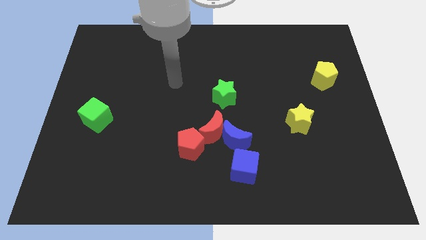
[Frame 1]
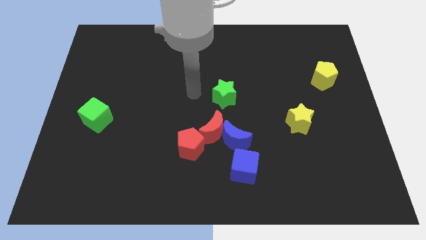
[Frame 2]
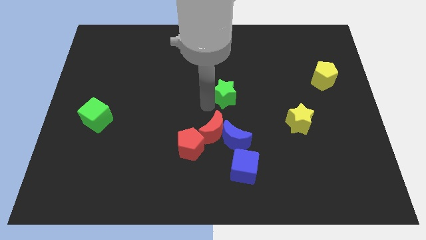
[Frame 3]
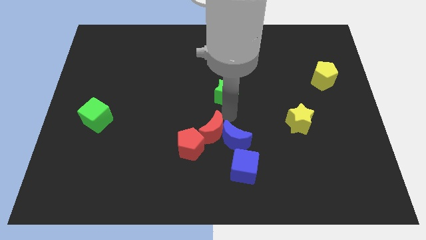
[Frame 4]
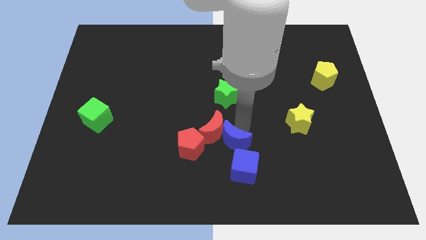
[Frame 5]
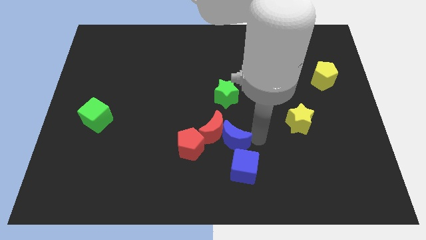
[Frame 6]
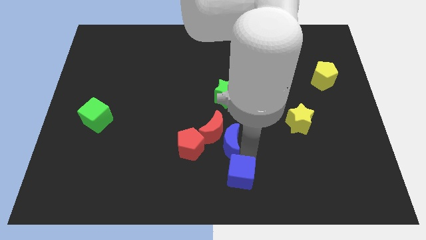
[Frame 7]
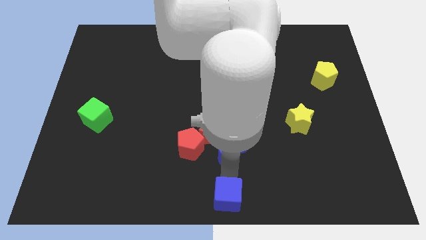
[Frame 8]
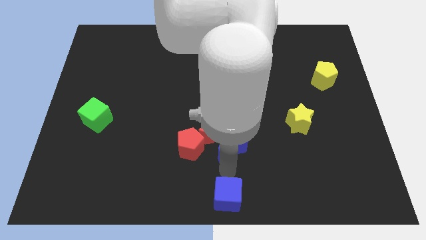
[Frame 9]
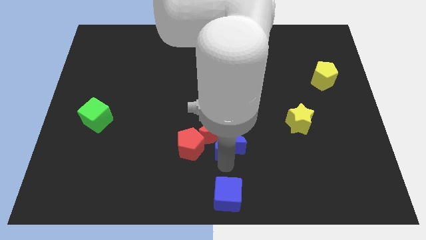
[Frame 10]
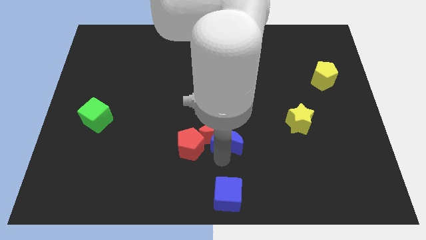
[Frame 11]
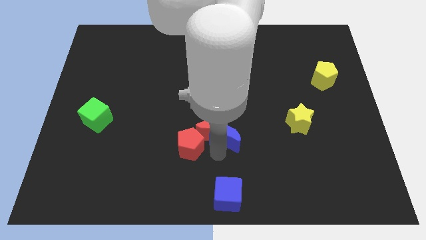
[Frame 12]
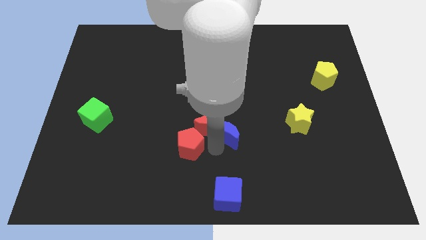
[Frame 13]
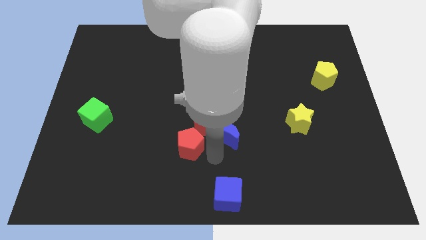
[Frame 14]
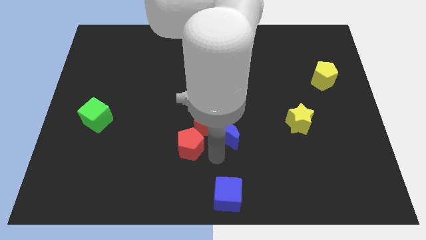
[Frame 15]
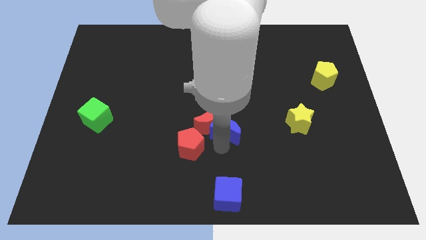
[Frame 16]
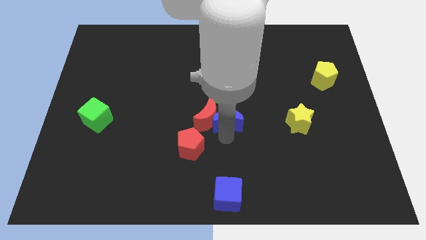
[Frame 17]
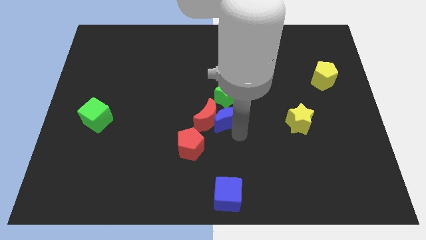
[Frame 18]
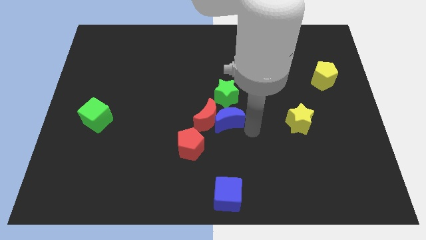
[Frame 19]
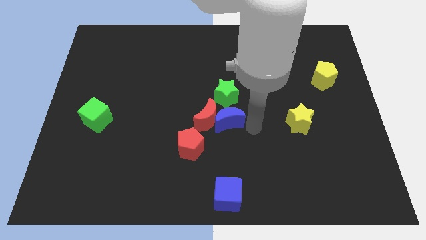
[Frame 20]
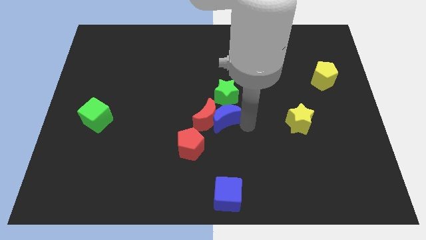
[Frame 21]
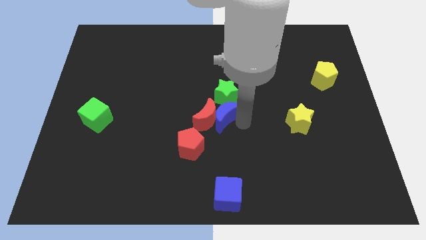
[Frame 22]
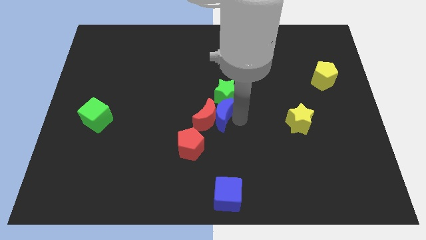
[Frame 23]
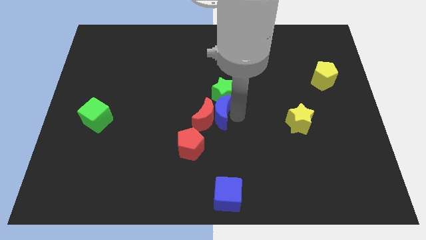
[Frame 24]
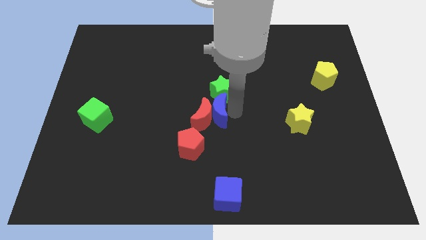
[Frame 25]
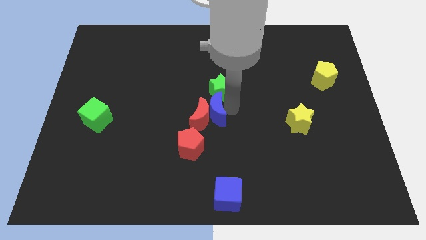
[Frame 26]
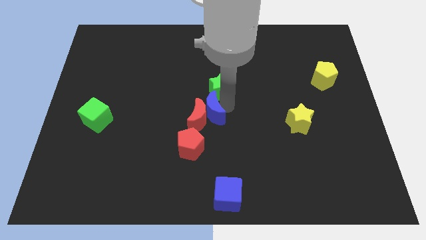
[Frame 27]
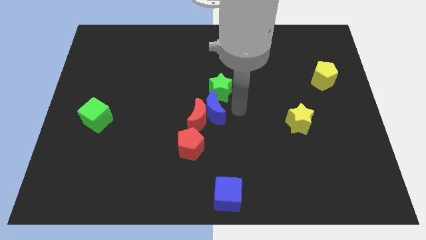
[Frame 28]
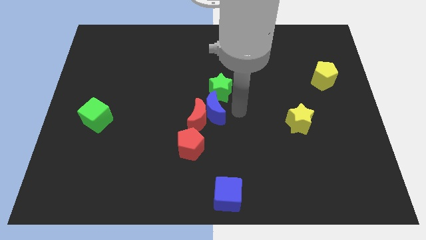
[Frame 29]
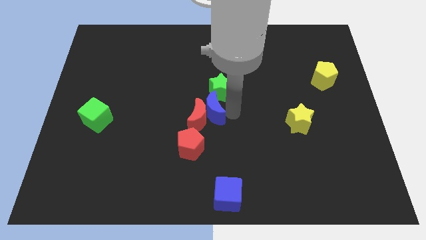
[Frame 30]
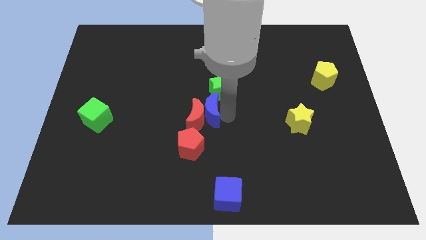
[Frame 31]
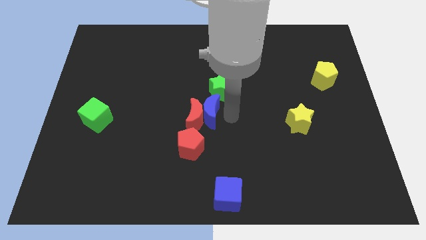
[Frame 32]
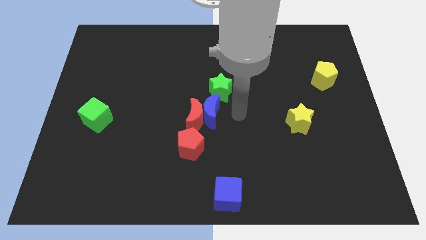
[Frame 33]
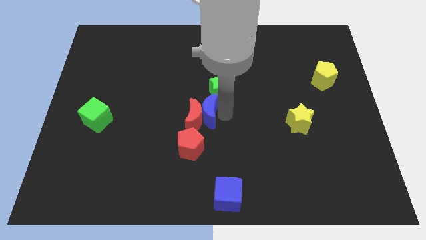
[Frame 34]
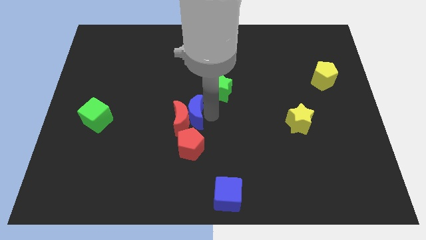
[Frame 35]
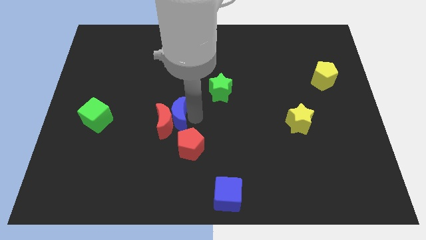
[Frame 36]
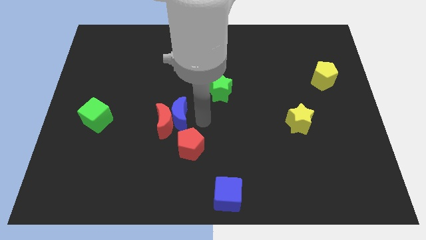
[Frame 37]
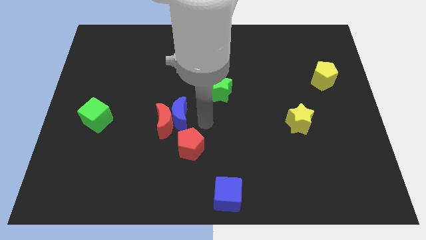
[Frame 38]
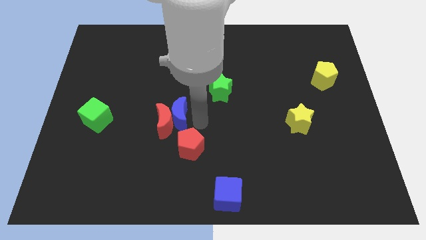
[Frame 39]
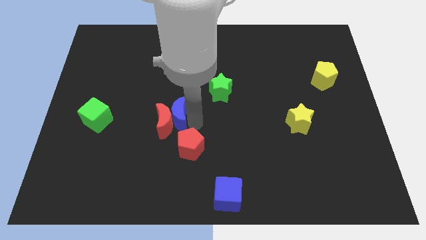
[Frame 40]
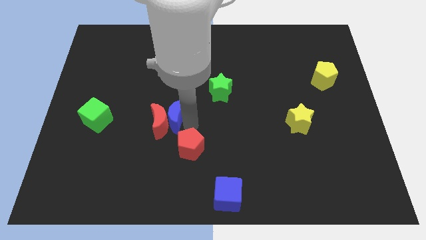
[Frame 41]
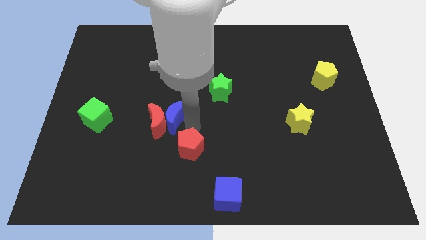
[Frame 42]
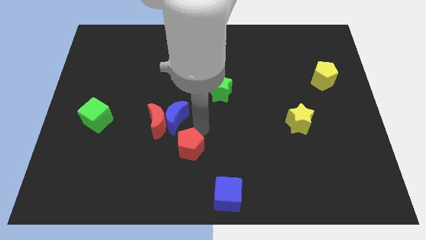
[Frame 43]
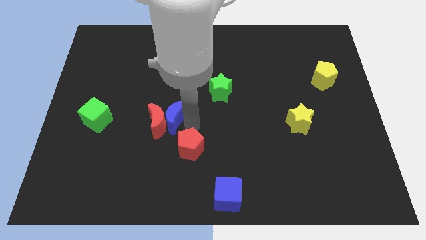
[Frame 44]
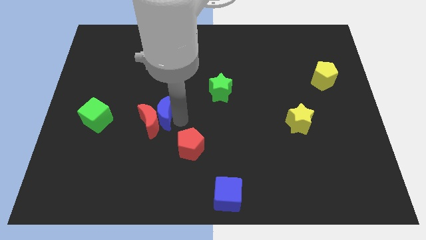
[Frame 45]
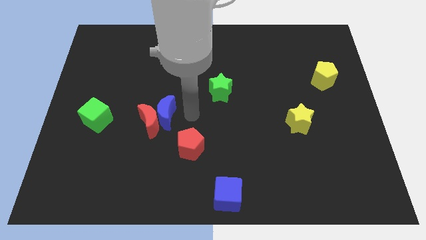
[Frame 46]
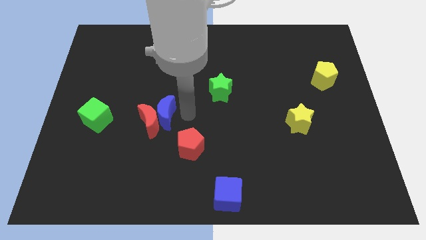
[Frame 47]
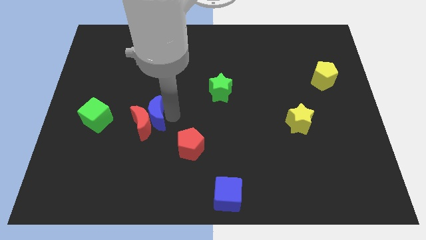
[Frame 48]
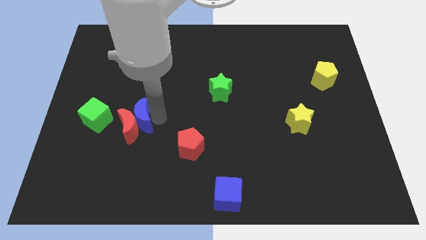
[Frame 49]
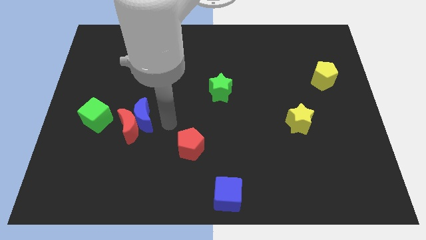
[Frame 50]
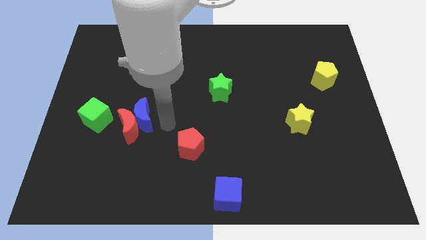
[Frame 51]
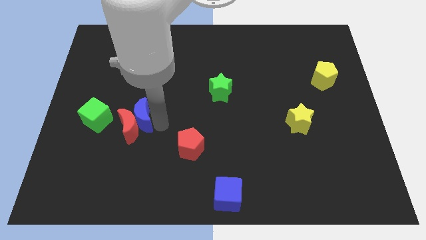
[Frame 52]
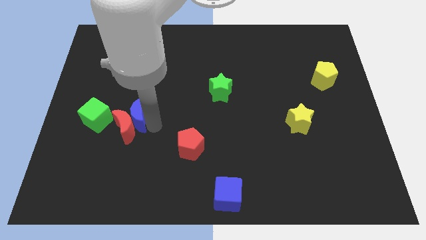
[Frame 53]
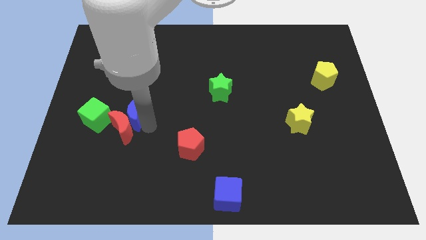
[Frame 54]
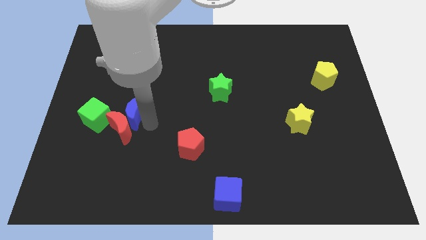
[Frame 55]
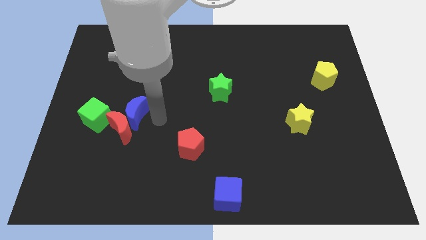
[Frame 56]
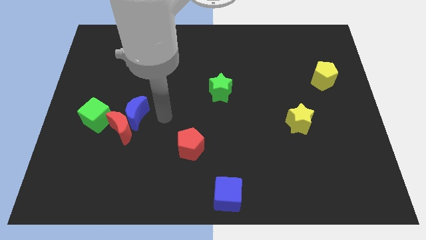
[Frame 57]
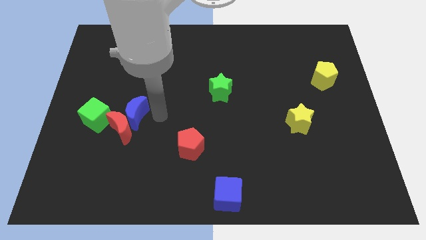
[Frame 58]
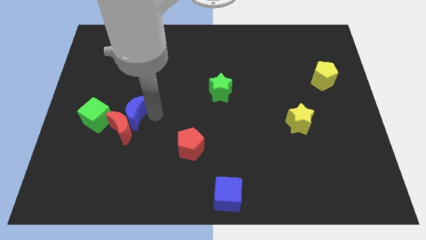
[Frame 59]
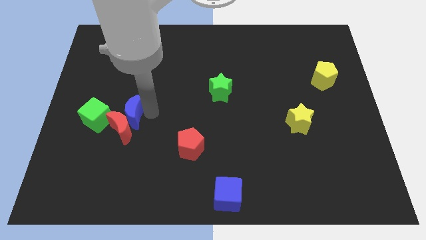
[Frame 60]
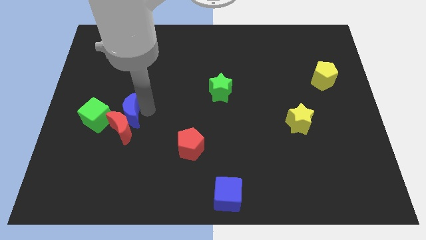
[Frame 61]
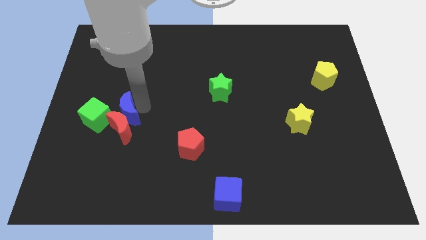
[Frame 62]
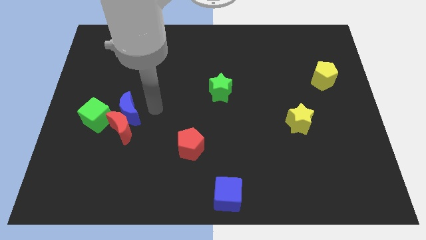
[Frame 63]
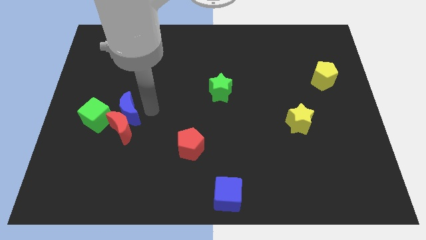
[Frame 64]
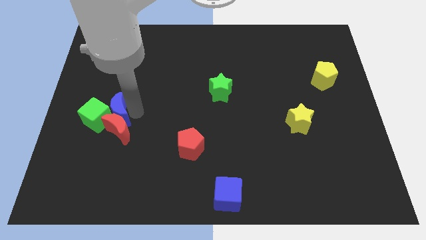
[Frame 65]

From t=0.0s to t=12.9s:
put the blue moon to the green cube

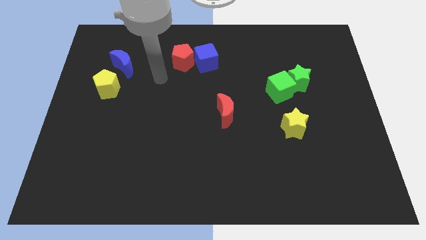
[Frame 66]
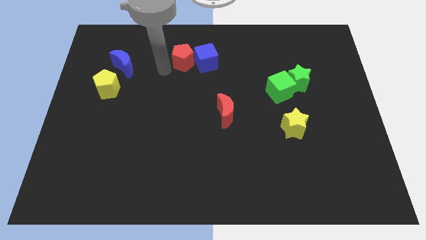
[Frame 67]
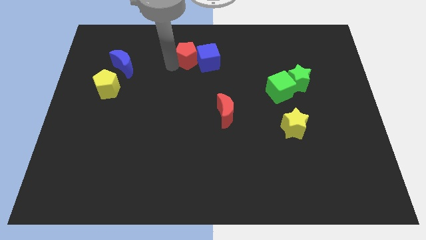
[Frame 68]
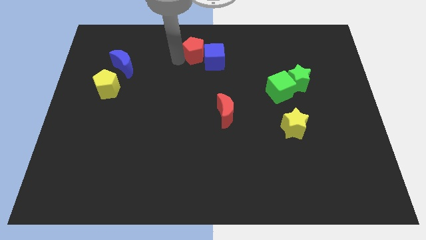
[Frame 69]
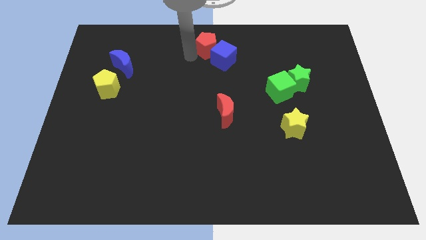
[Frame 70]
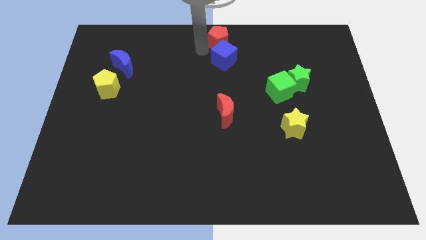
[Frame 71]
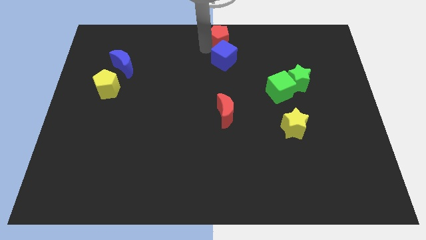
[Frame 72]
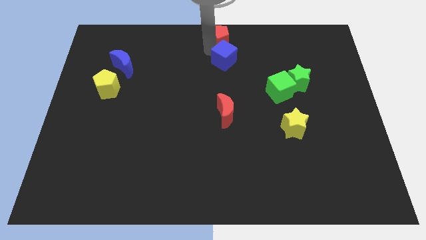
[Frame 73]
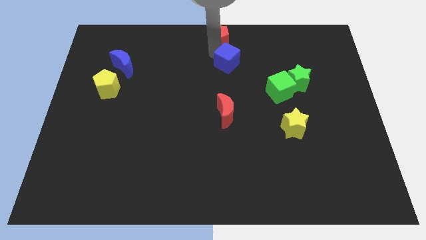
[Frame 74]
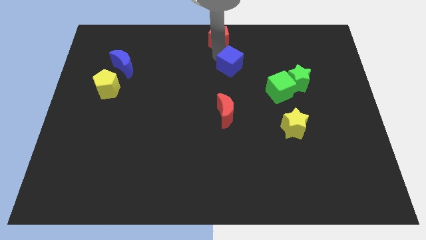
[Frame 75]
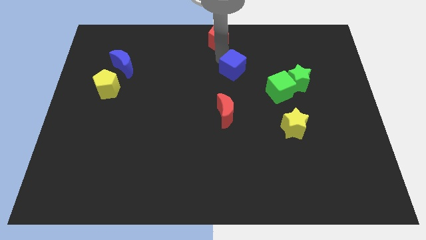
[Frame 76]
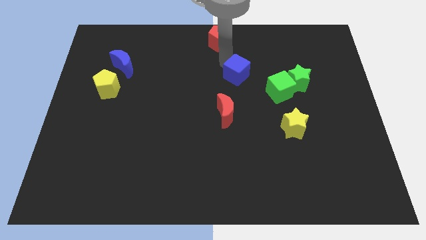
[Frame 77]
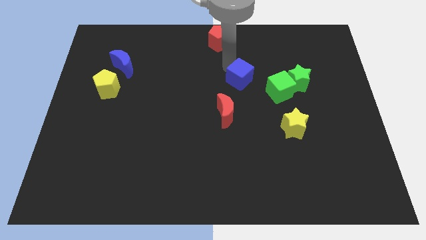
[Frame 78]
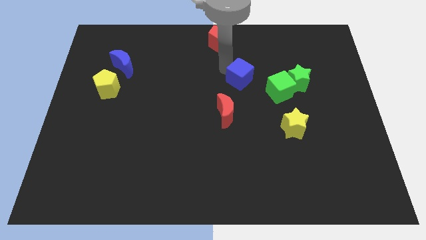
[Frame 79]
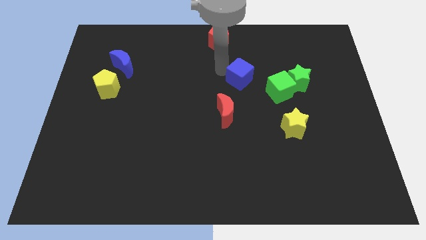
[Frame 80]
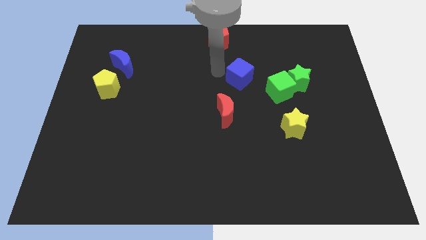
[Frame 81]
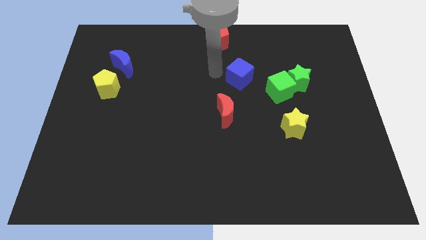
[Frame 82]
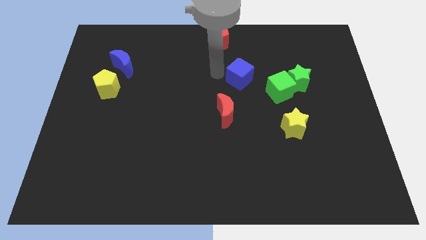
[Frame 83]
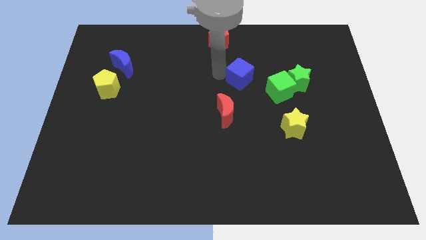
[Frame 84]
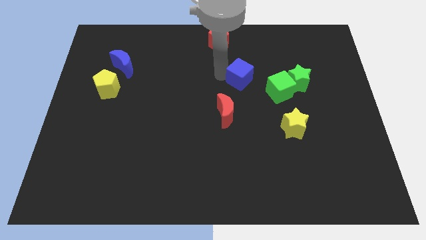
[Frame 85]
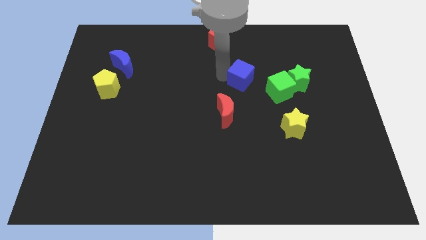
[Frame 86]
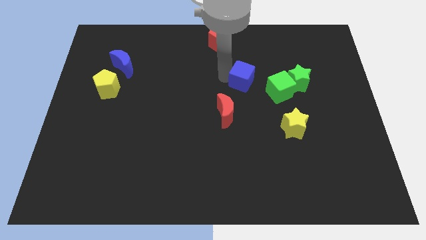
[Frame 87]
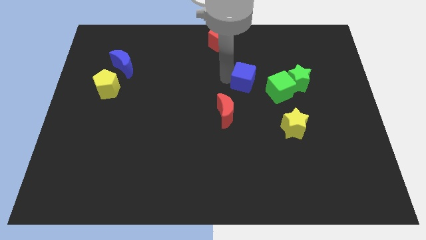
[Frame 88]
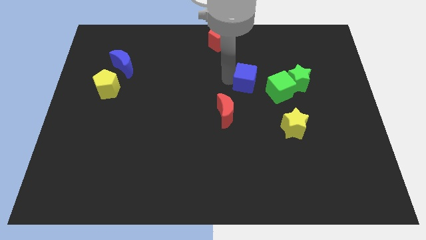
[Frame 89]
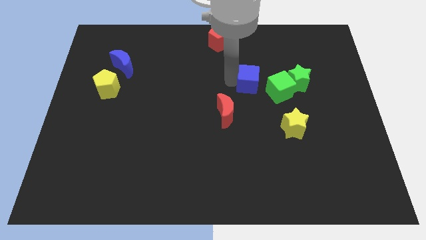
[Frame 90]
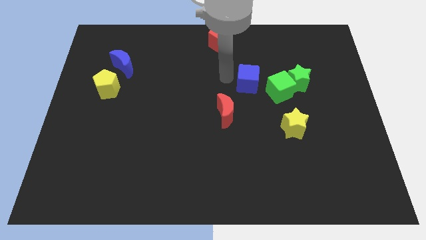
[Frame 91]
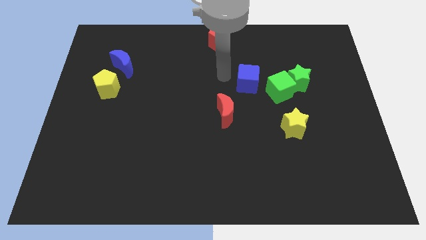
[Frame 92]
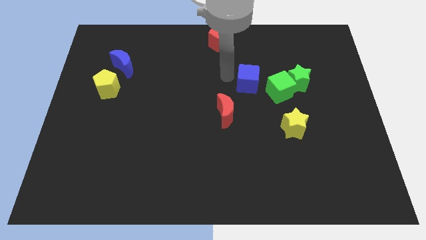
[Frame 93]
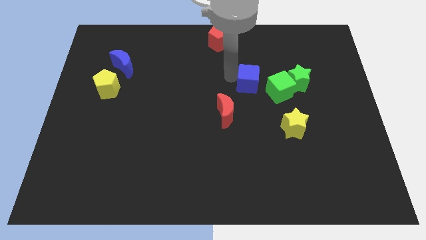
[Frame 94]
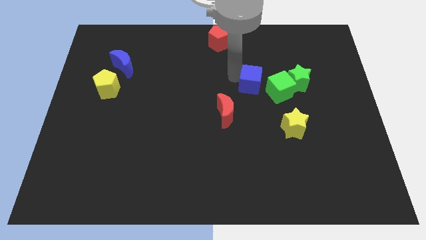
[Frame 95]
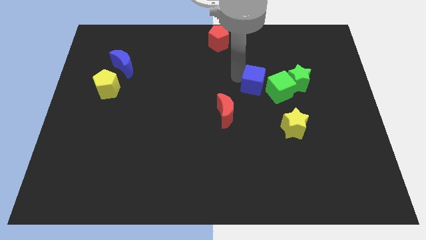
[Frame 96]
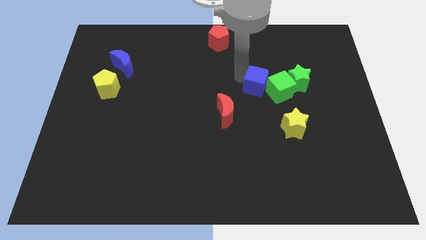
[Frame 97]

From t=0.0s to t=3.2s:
put the blue cube towards the green cube
